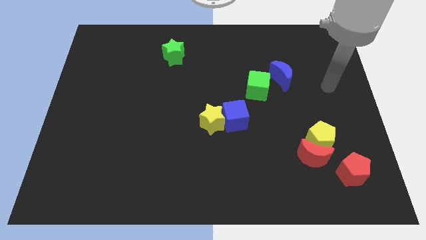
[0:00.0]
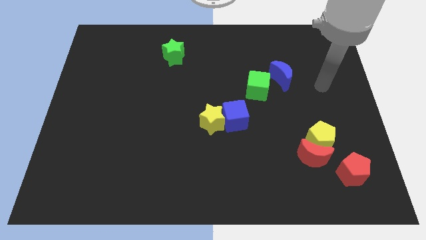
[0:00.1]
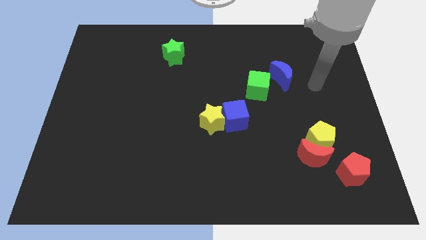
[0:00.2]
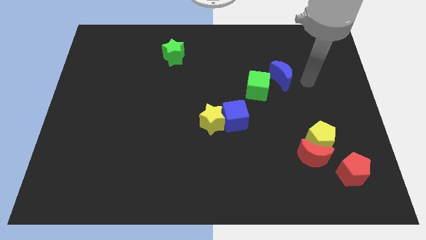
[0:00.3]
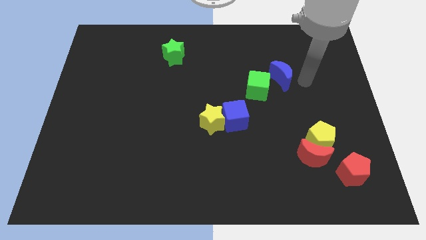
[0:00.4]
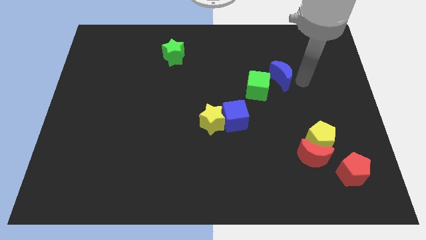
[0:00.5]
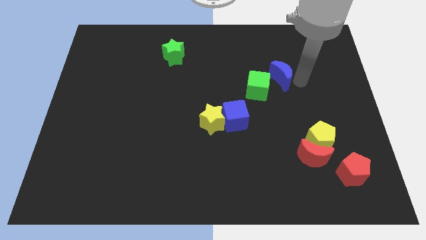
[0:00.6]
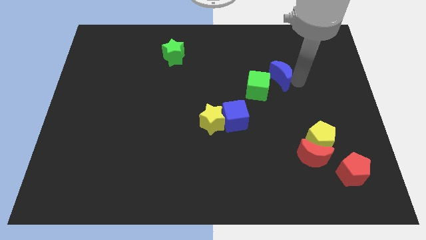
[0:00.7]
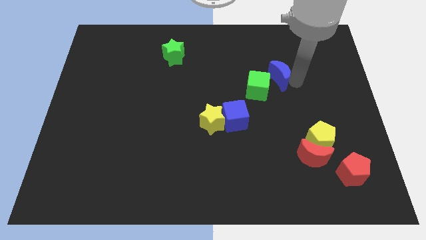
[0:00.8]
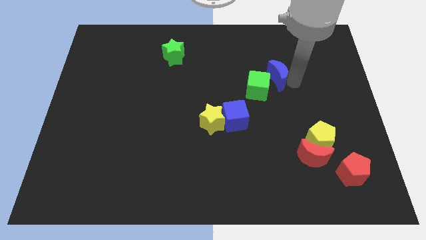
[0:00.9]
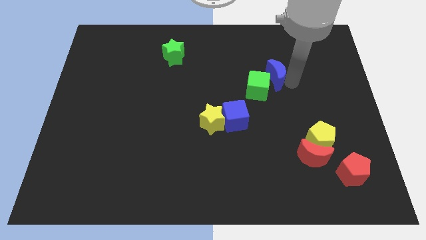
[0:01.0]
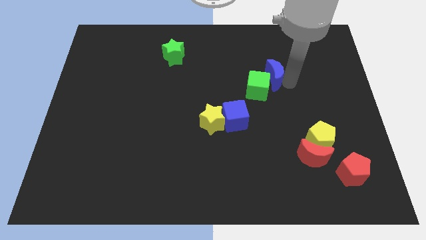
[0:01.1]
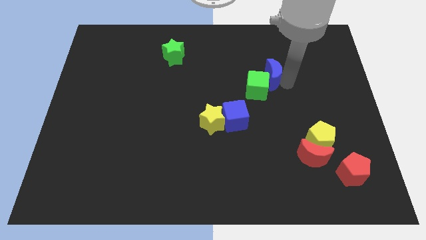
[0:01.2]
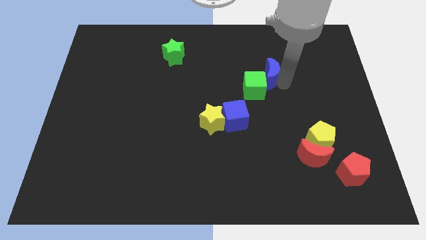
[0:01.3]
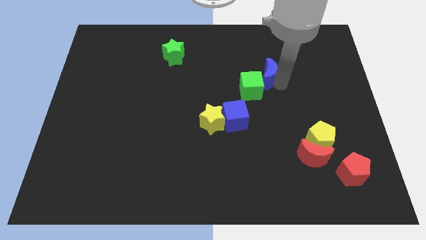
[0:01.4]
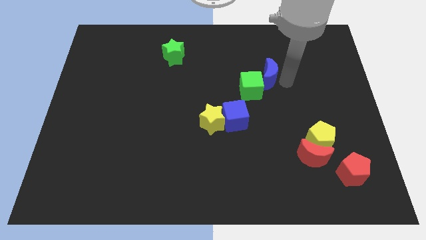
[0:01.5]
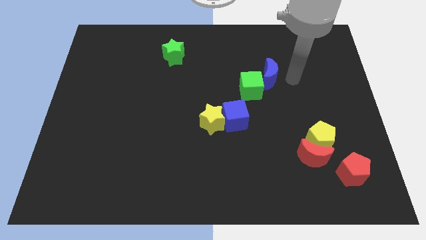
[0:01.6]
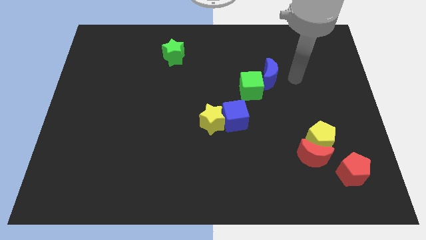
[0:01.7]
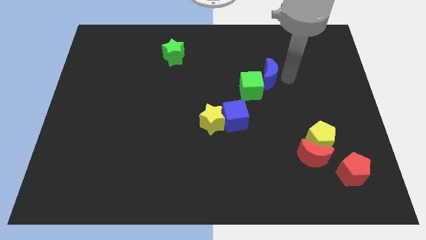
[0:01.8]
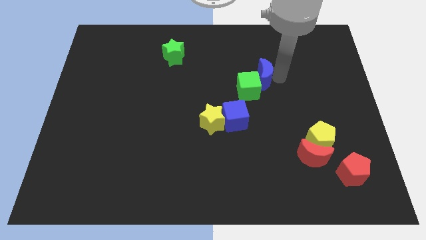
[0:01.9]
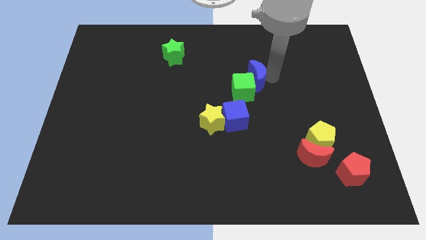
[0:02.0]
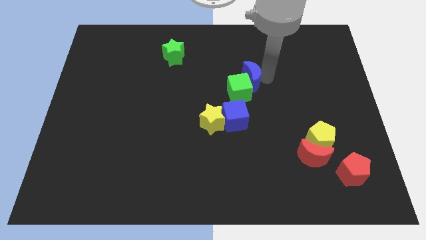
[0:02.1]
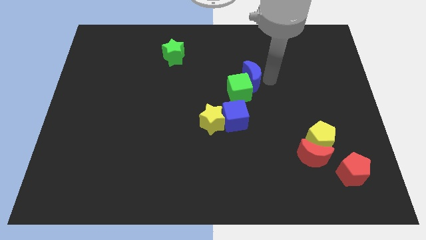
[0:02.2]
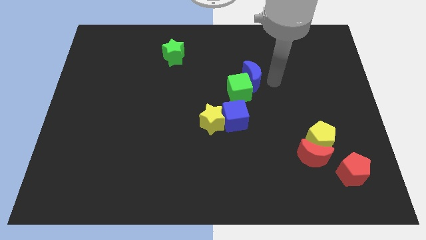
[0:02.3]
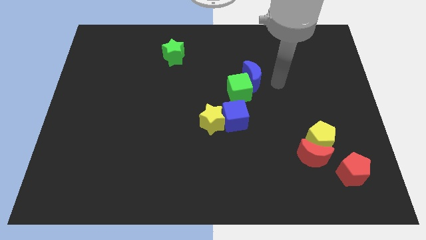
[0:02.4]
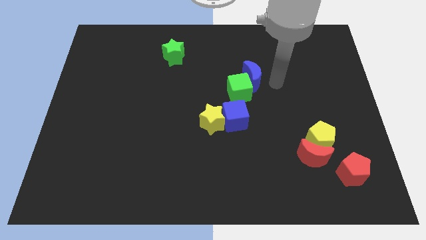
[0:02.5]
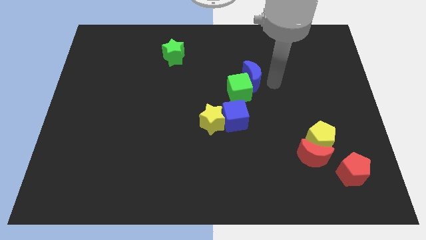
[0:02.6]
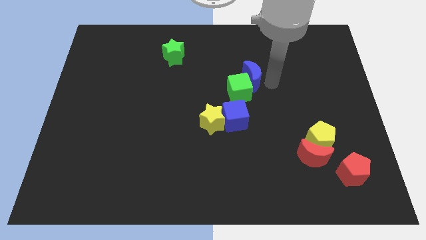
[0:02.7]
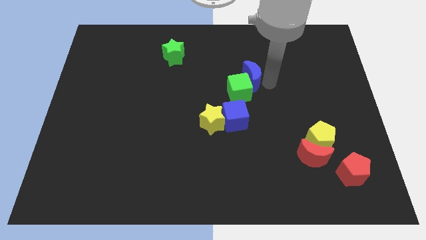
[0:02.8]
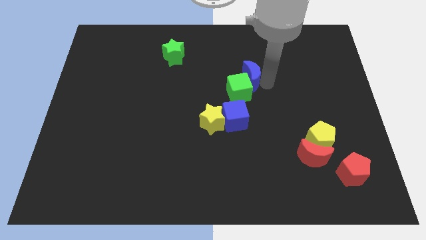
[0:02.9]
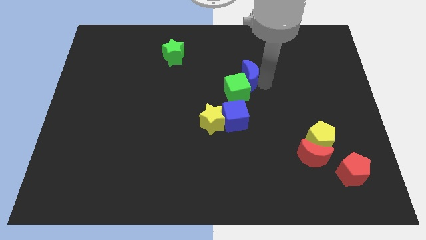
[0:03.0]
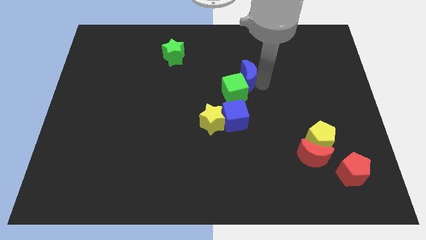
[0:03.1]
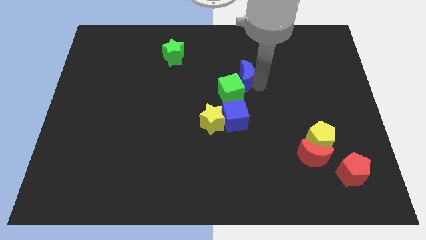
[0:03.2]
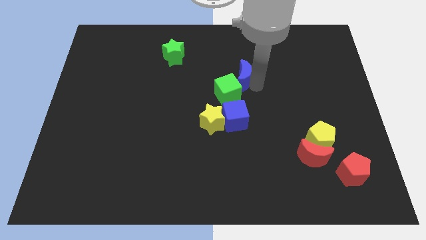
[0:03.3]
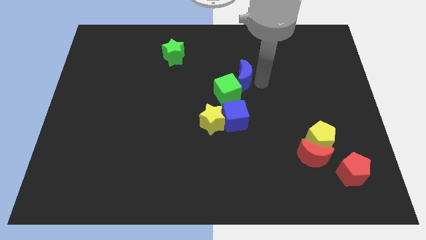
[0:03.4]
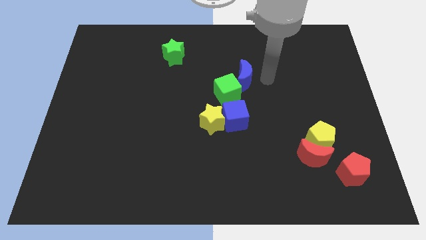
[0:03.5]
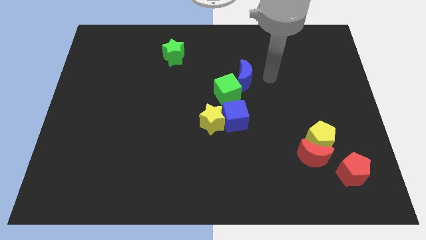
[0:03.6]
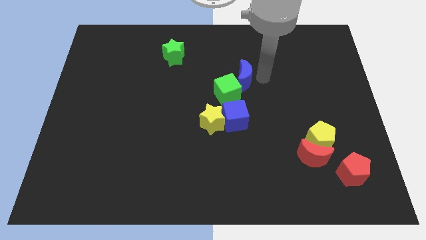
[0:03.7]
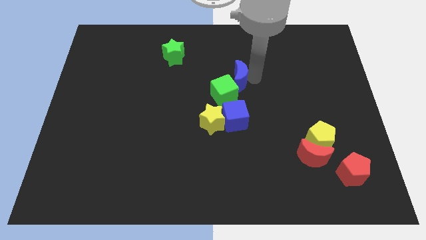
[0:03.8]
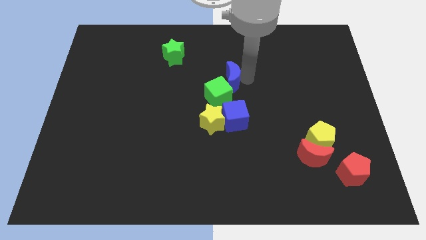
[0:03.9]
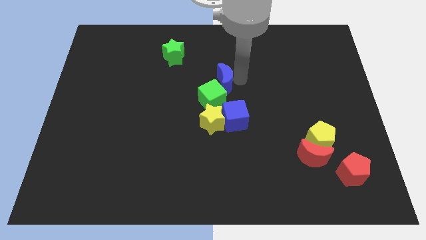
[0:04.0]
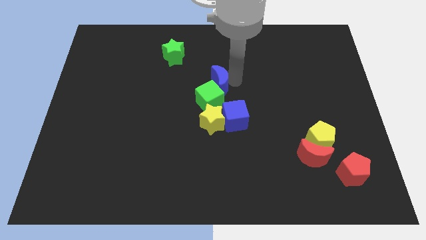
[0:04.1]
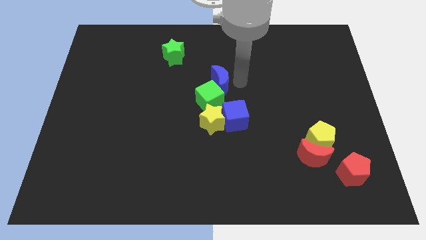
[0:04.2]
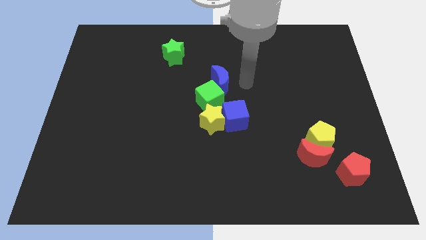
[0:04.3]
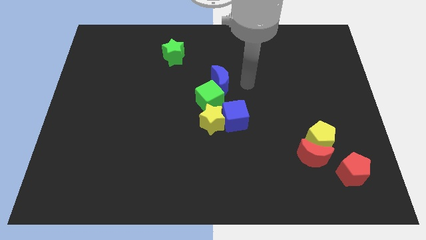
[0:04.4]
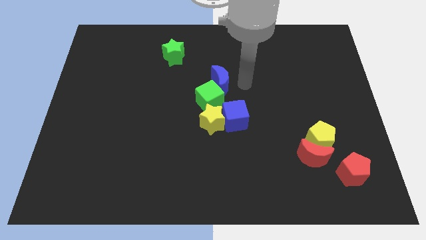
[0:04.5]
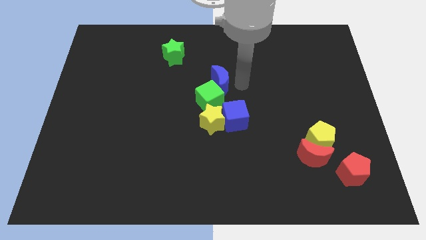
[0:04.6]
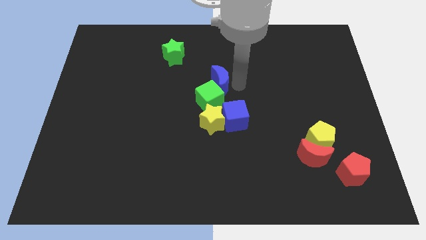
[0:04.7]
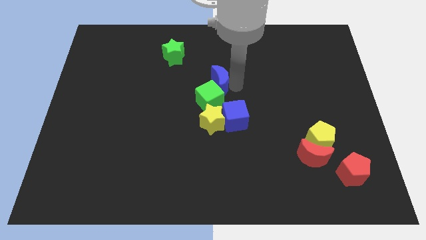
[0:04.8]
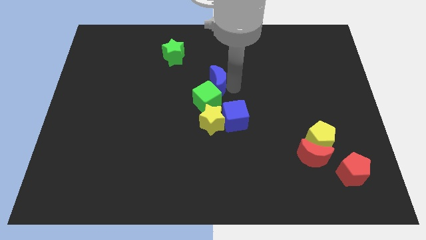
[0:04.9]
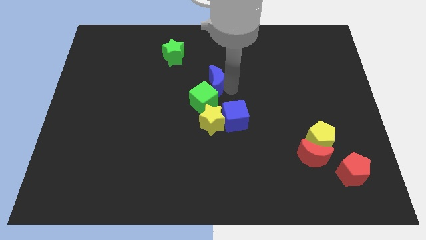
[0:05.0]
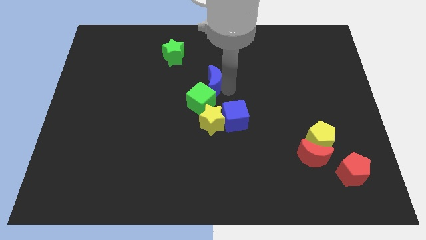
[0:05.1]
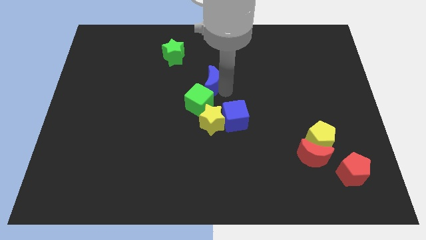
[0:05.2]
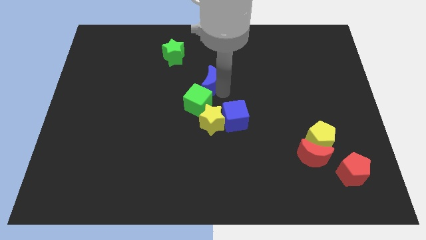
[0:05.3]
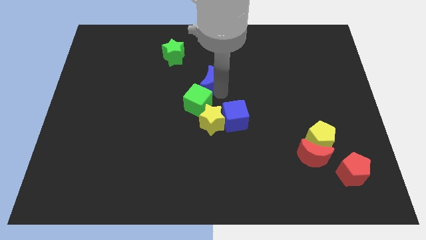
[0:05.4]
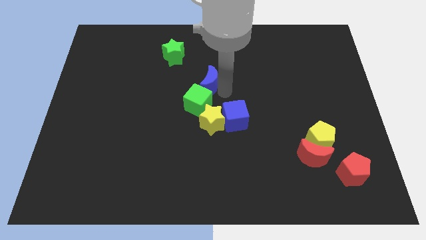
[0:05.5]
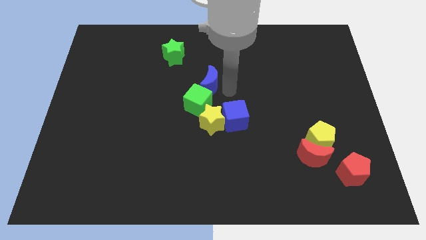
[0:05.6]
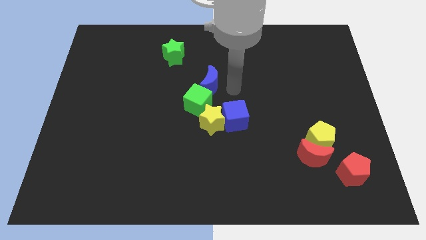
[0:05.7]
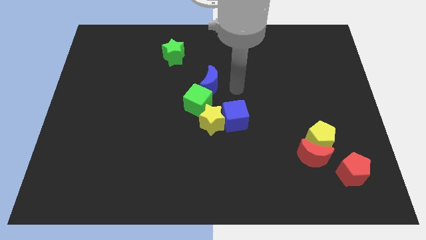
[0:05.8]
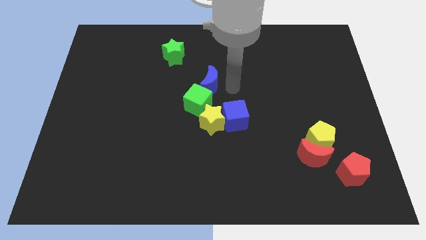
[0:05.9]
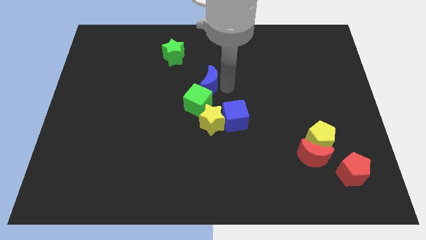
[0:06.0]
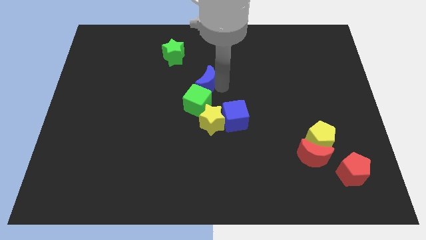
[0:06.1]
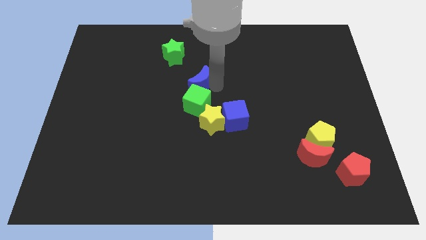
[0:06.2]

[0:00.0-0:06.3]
push the blue moon to the left

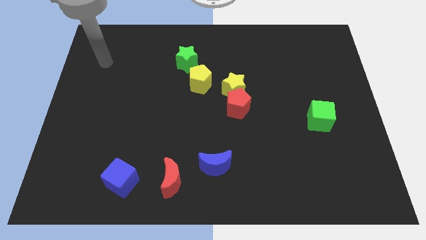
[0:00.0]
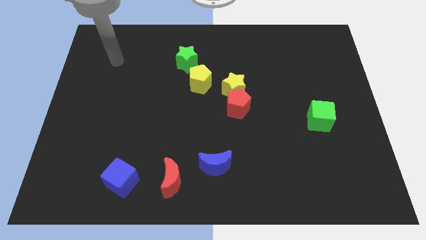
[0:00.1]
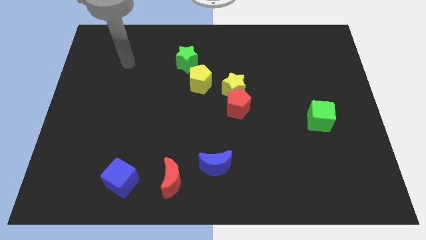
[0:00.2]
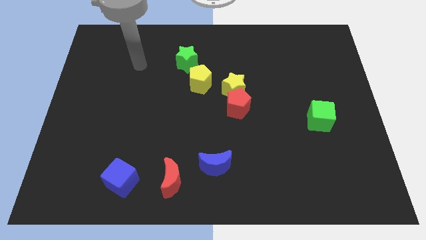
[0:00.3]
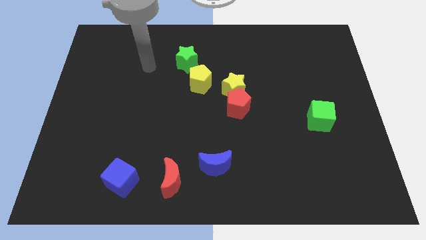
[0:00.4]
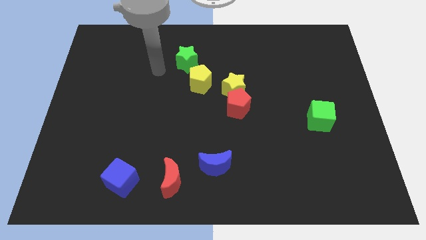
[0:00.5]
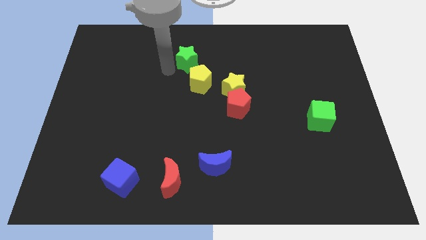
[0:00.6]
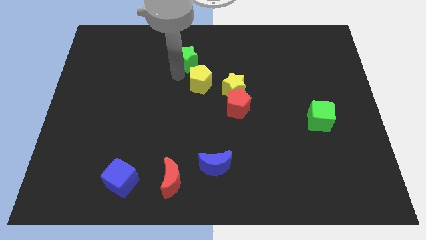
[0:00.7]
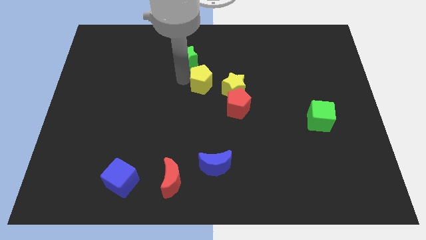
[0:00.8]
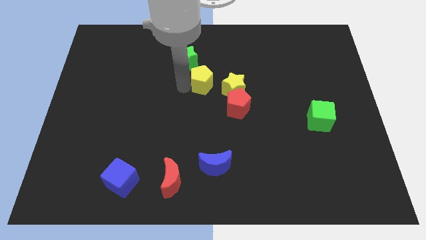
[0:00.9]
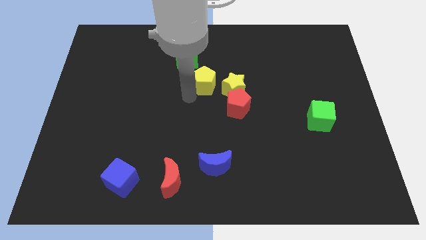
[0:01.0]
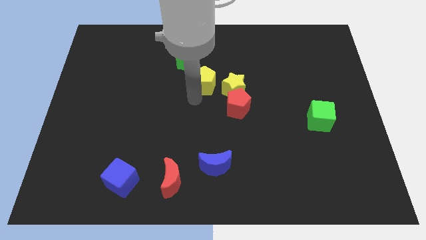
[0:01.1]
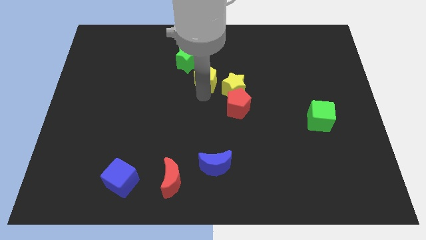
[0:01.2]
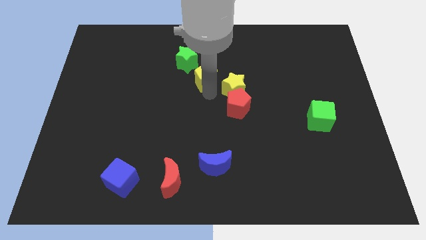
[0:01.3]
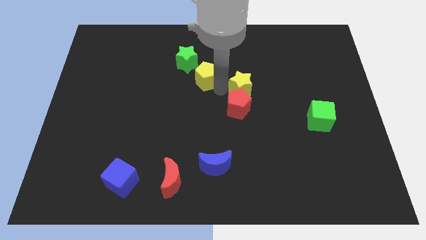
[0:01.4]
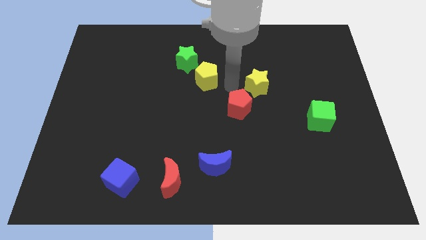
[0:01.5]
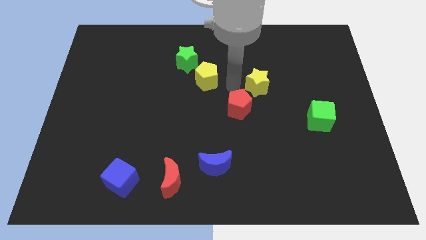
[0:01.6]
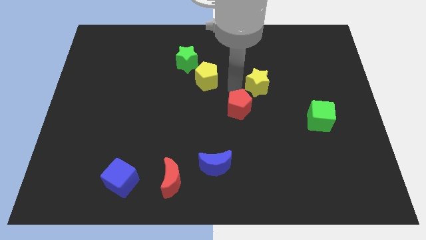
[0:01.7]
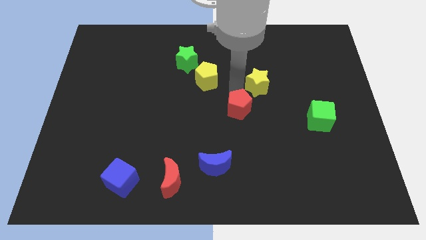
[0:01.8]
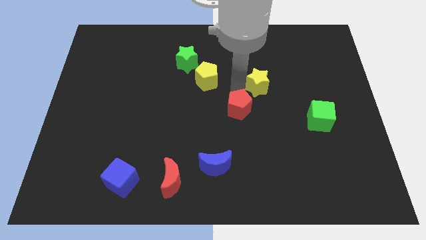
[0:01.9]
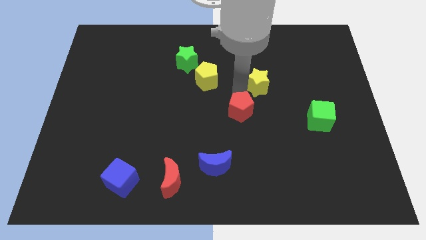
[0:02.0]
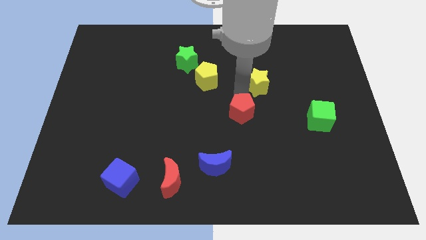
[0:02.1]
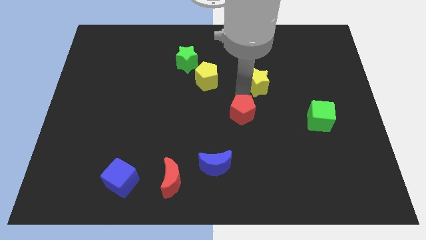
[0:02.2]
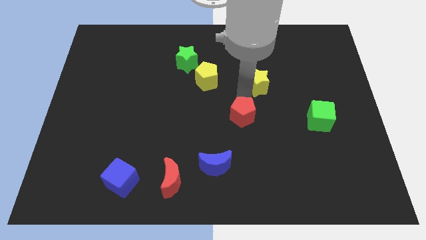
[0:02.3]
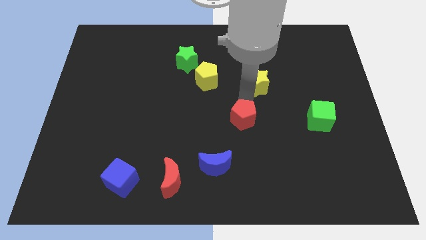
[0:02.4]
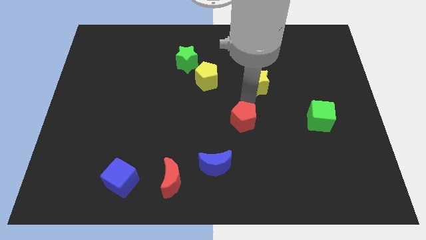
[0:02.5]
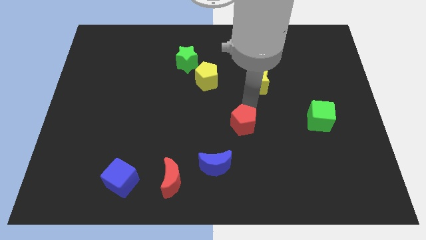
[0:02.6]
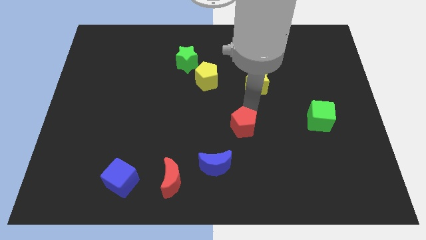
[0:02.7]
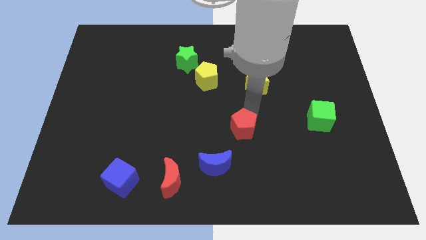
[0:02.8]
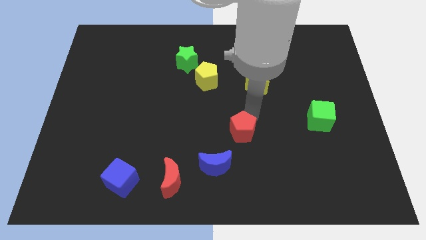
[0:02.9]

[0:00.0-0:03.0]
slide the red pentagon a bit down
